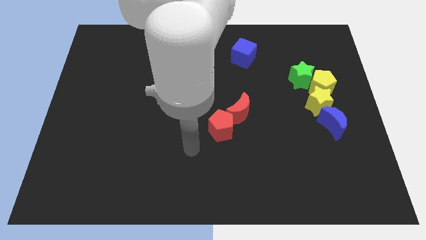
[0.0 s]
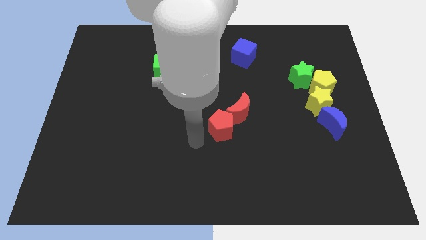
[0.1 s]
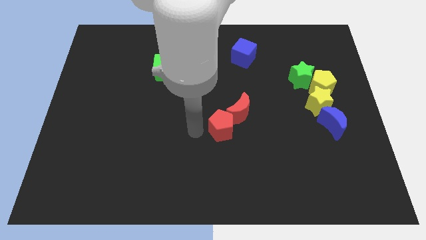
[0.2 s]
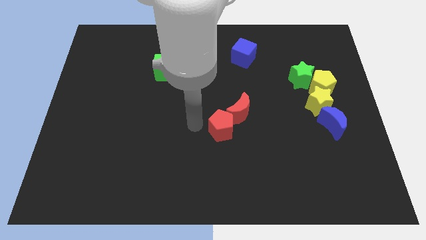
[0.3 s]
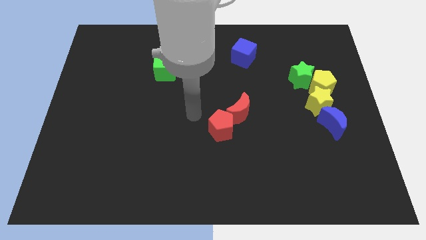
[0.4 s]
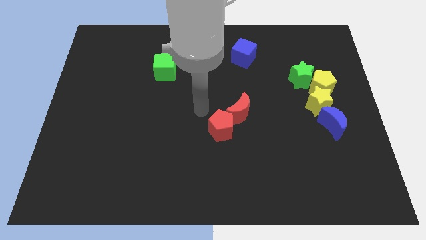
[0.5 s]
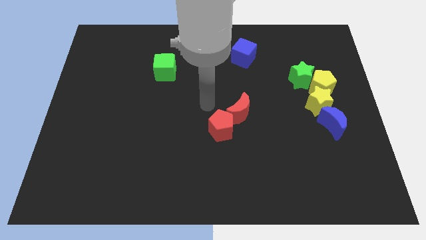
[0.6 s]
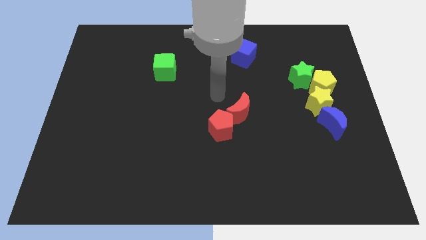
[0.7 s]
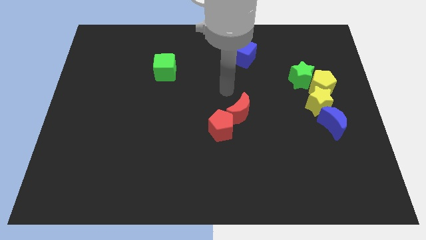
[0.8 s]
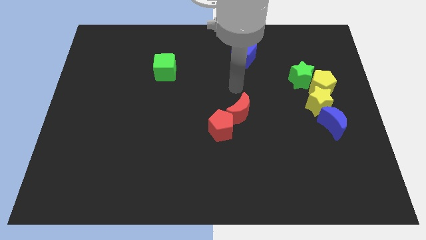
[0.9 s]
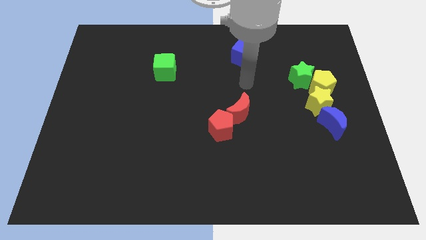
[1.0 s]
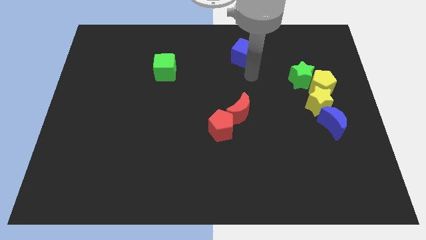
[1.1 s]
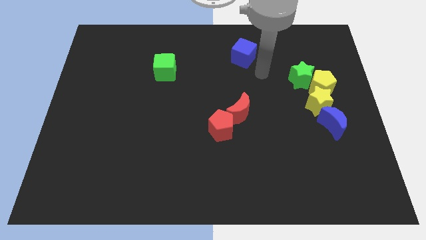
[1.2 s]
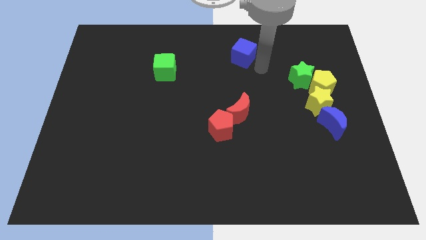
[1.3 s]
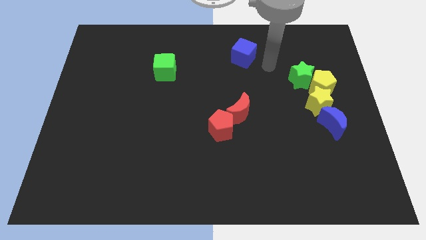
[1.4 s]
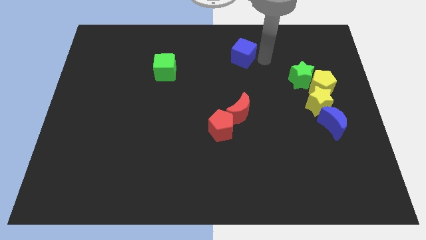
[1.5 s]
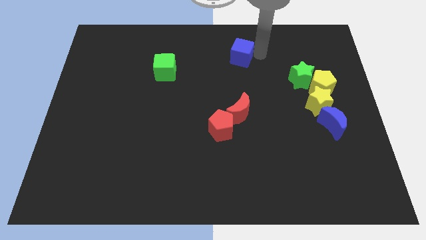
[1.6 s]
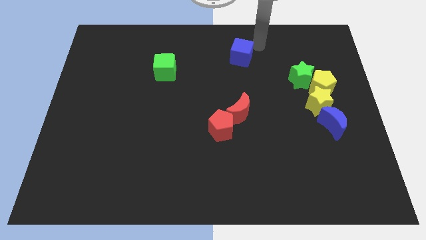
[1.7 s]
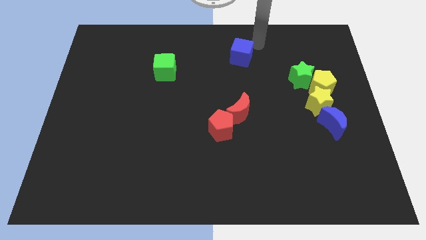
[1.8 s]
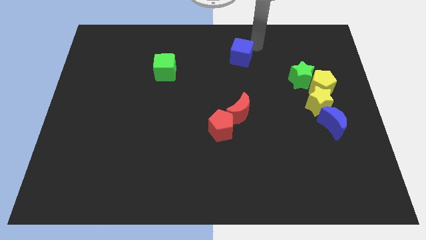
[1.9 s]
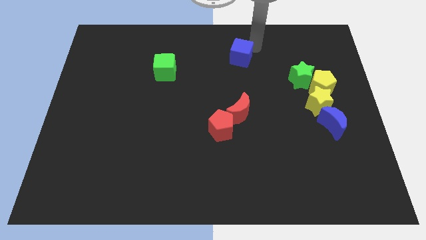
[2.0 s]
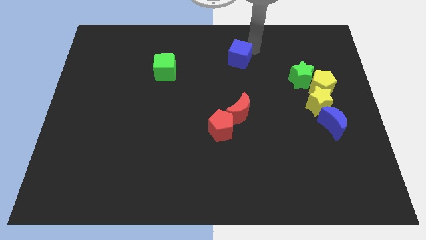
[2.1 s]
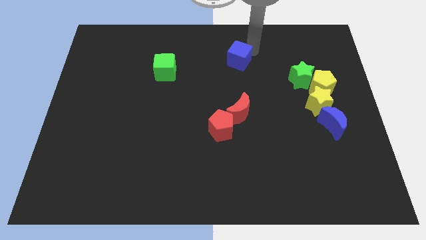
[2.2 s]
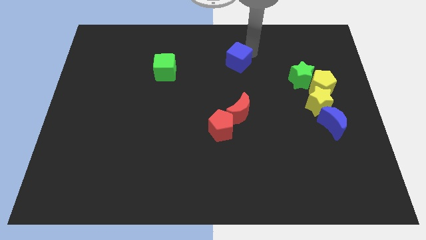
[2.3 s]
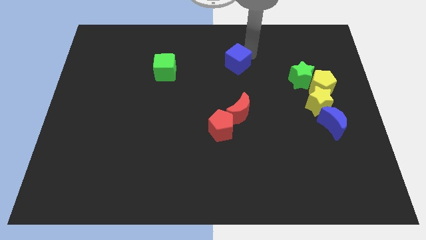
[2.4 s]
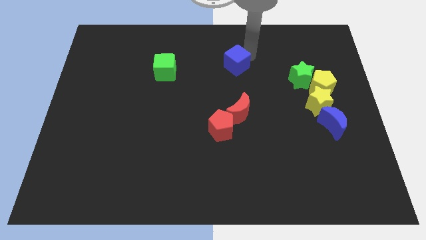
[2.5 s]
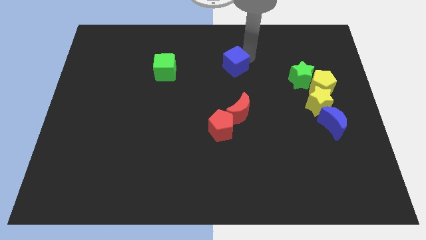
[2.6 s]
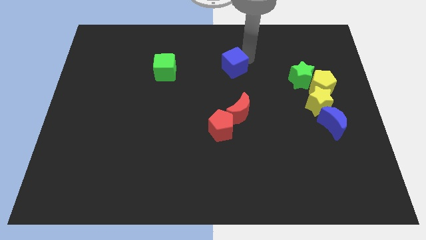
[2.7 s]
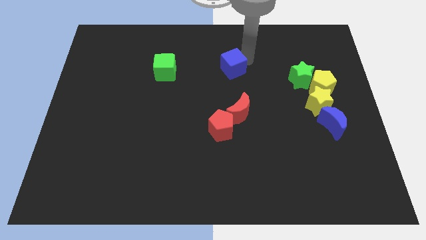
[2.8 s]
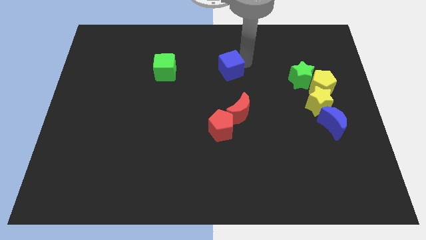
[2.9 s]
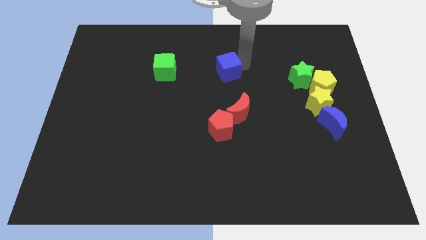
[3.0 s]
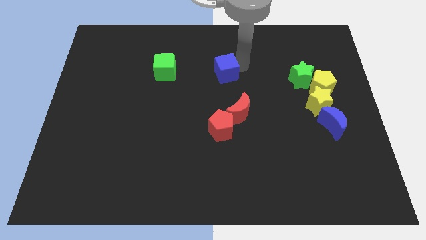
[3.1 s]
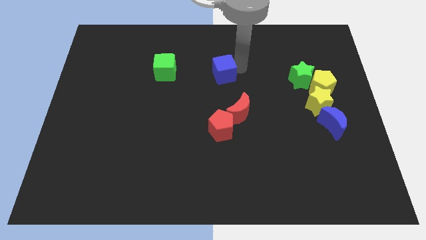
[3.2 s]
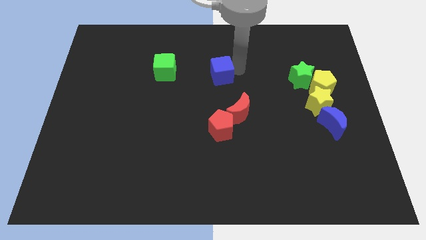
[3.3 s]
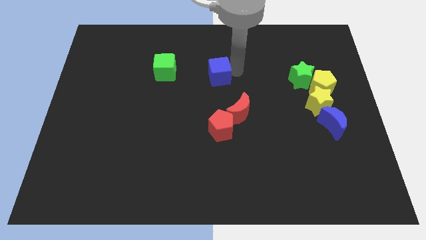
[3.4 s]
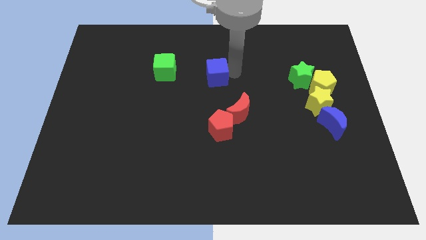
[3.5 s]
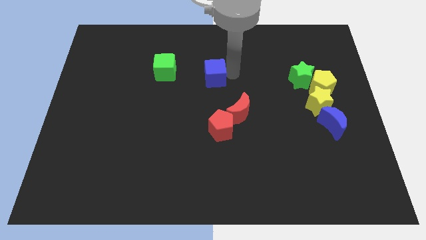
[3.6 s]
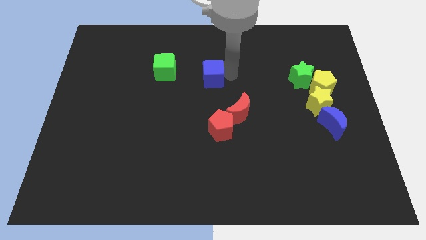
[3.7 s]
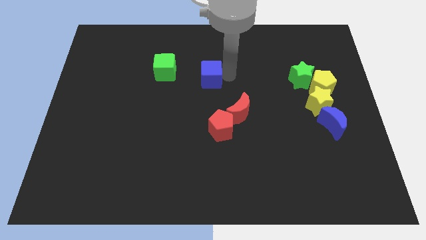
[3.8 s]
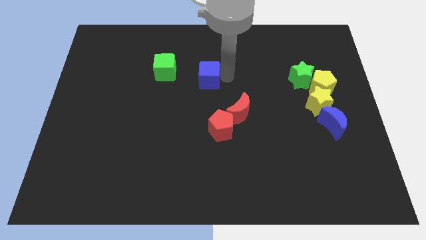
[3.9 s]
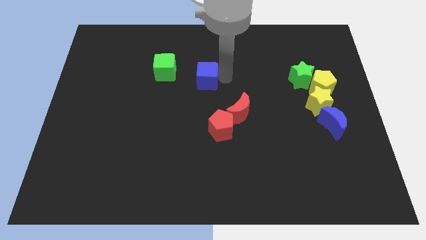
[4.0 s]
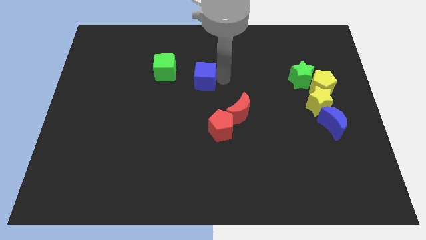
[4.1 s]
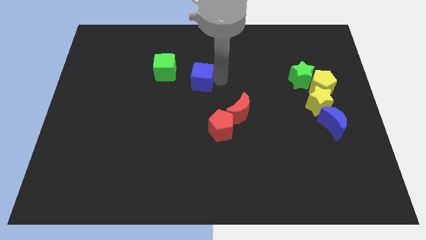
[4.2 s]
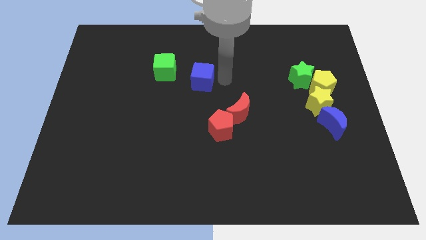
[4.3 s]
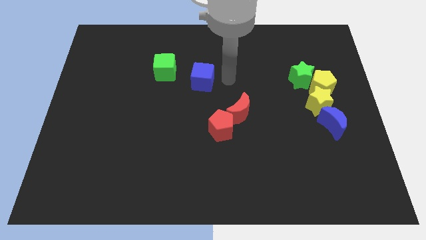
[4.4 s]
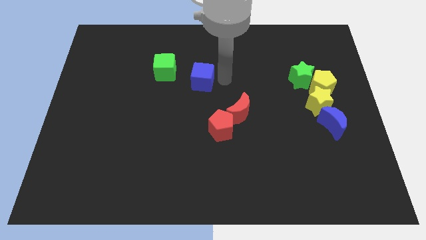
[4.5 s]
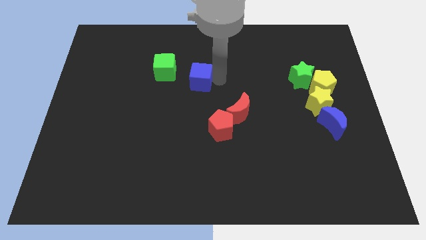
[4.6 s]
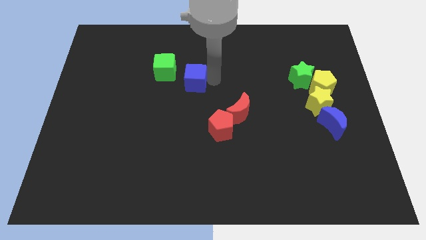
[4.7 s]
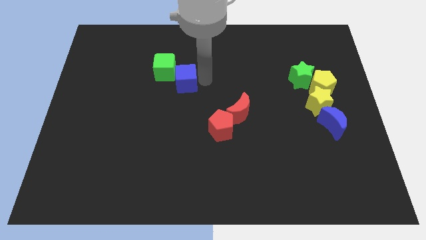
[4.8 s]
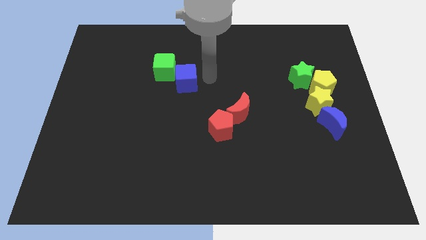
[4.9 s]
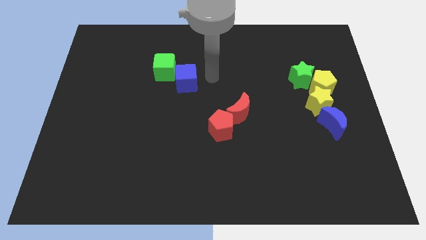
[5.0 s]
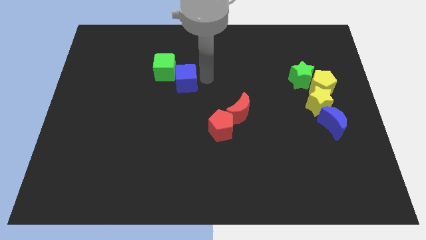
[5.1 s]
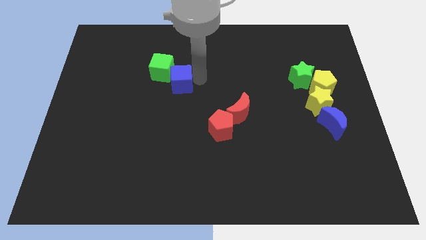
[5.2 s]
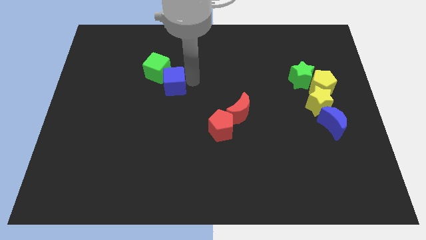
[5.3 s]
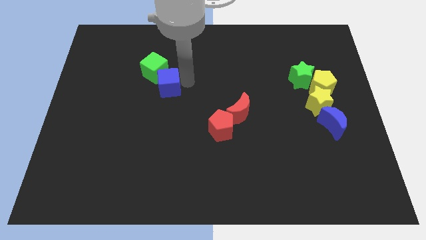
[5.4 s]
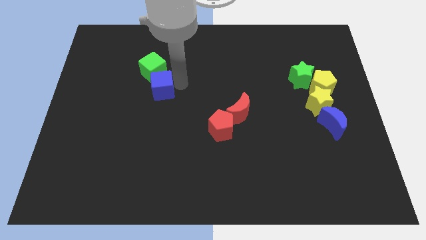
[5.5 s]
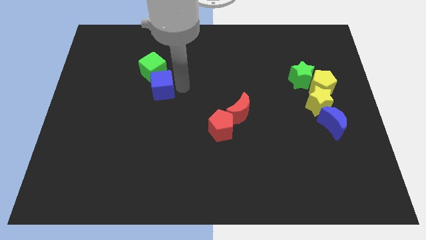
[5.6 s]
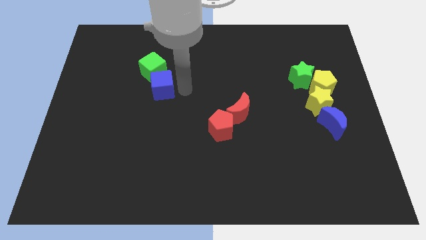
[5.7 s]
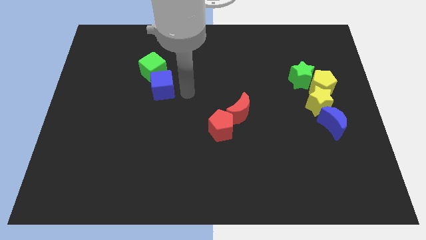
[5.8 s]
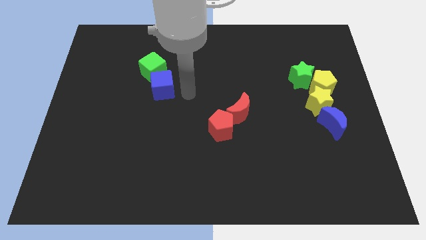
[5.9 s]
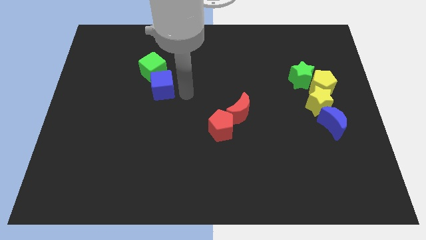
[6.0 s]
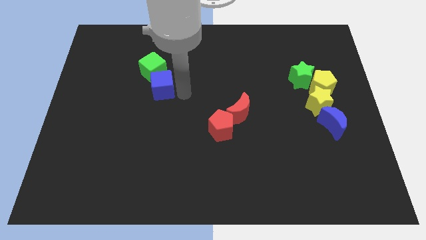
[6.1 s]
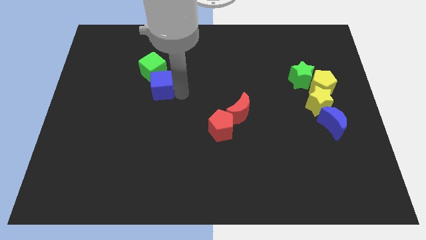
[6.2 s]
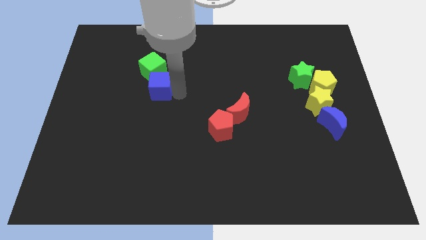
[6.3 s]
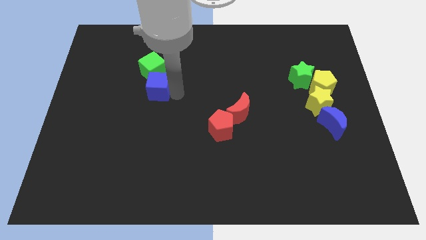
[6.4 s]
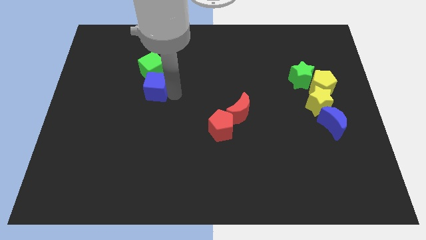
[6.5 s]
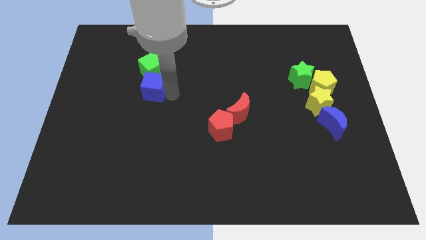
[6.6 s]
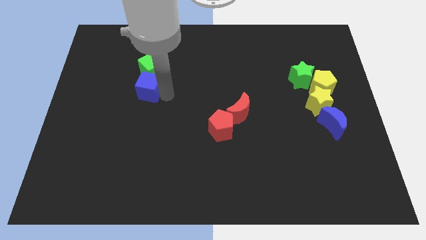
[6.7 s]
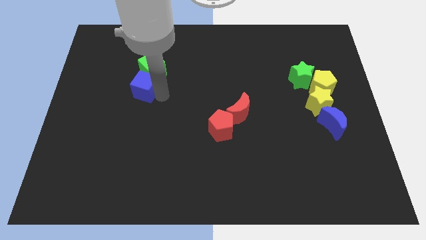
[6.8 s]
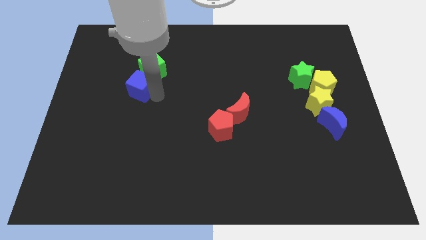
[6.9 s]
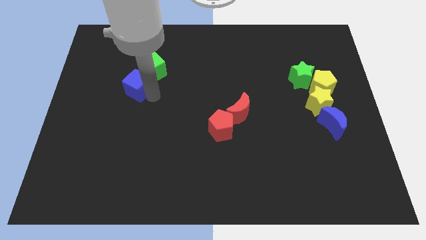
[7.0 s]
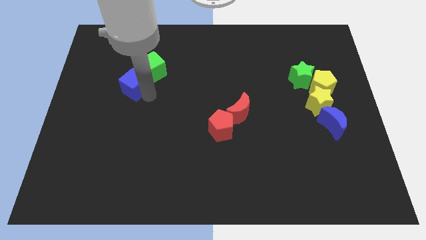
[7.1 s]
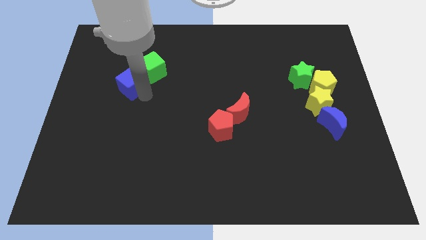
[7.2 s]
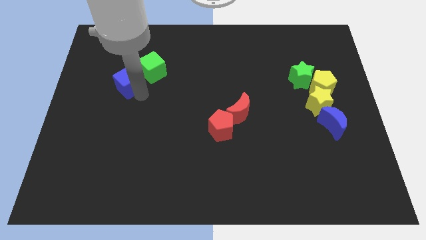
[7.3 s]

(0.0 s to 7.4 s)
move the blue cube to the left of the green cube
